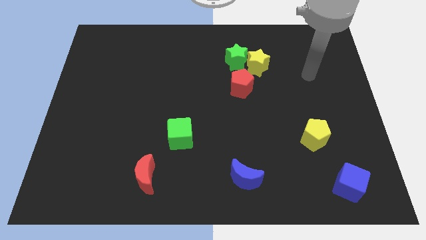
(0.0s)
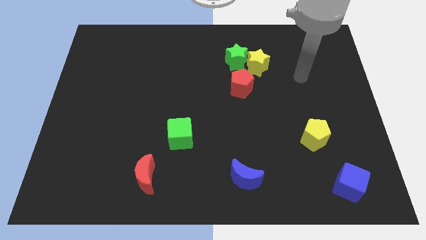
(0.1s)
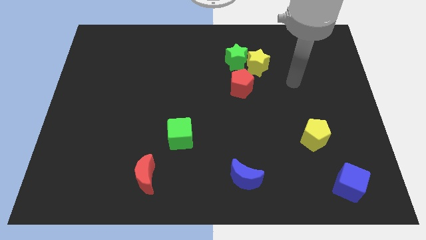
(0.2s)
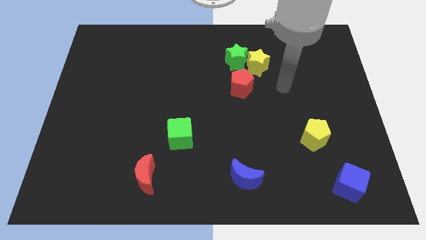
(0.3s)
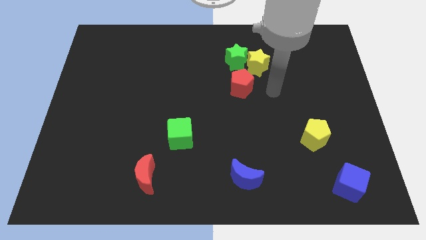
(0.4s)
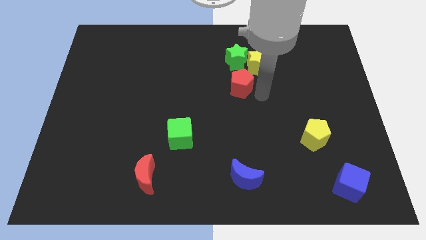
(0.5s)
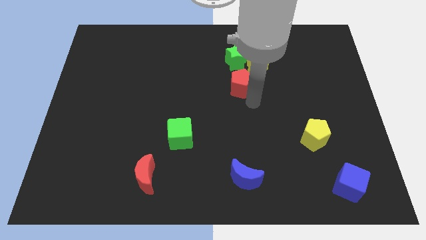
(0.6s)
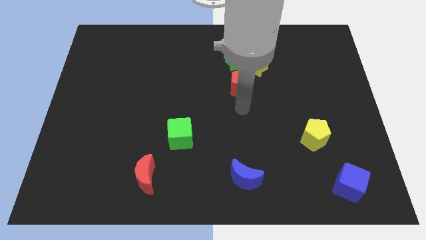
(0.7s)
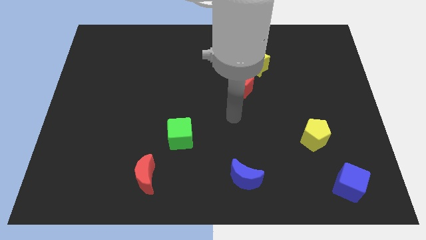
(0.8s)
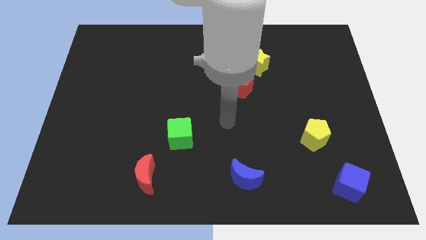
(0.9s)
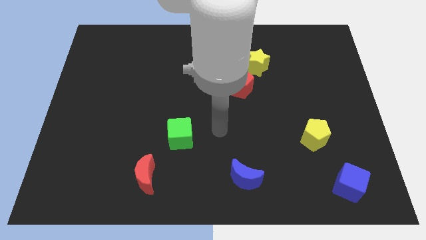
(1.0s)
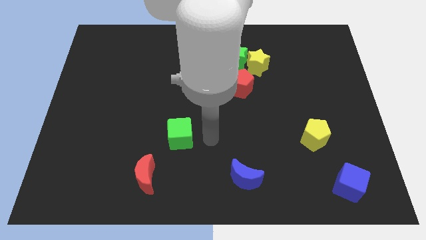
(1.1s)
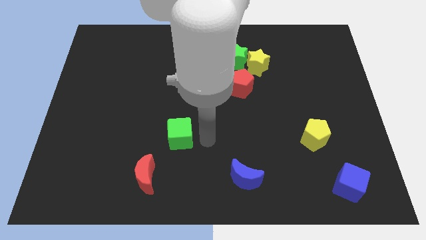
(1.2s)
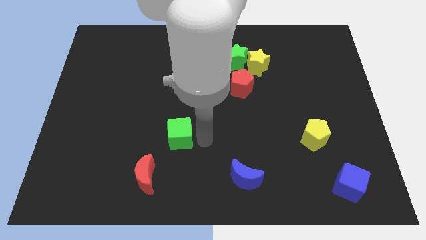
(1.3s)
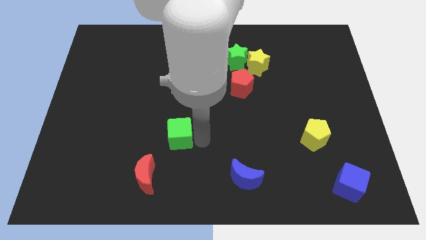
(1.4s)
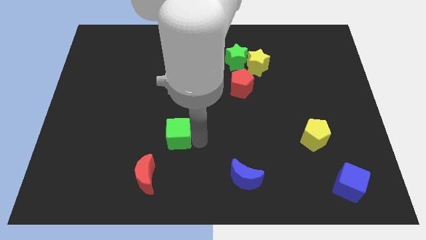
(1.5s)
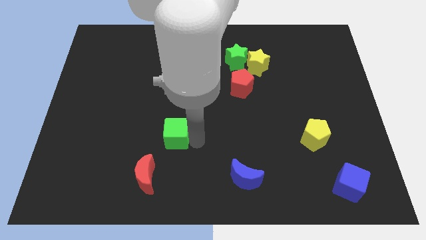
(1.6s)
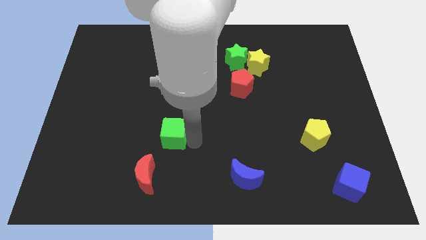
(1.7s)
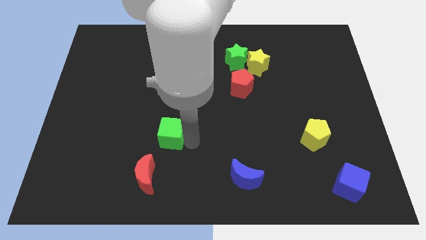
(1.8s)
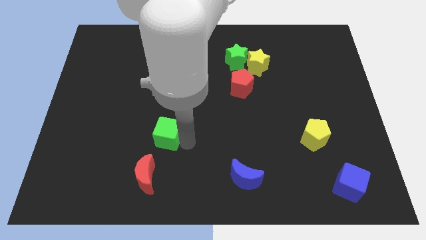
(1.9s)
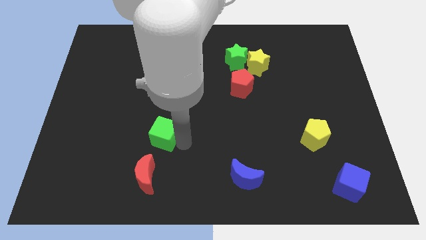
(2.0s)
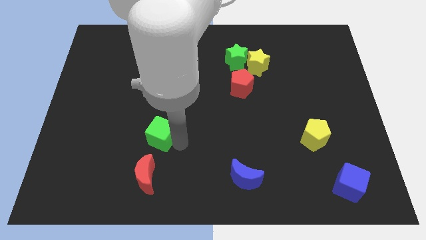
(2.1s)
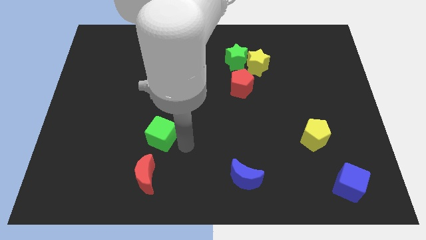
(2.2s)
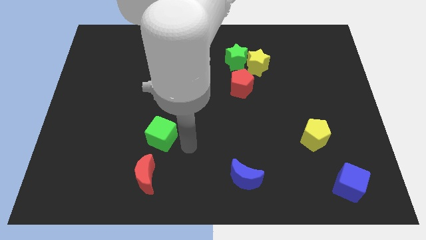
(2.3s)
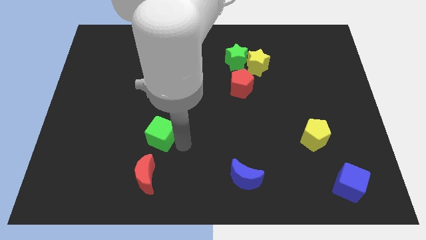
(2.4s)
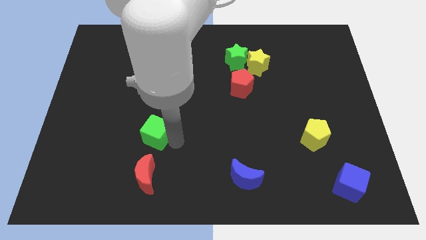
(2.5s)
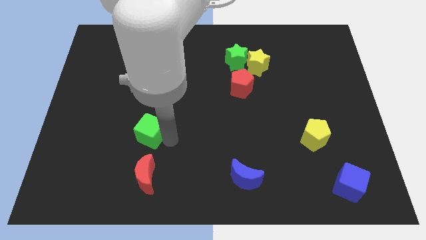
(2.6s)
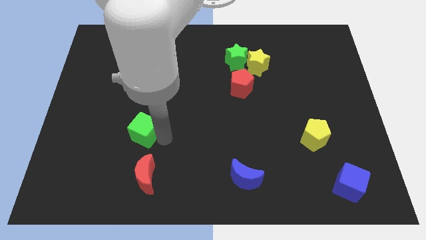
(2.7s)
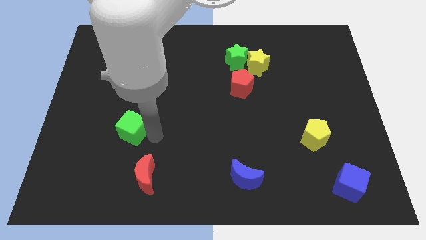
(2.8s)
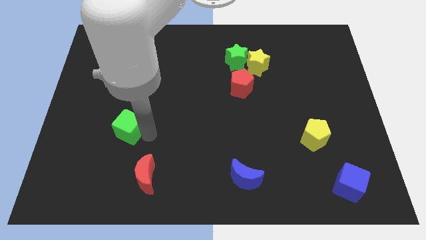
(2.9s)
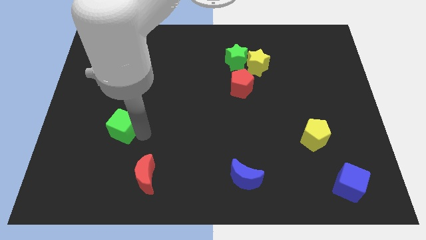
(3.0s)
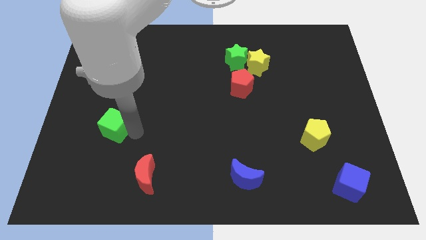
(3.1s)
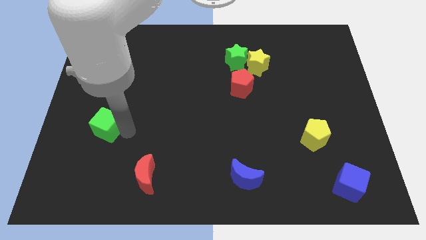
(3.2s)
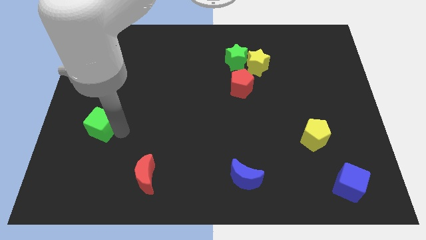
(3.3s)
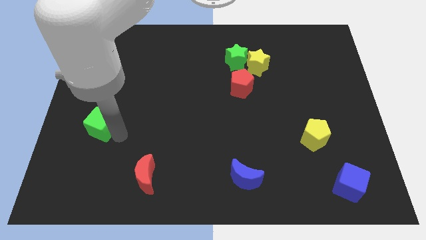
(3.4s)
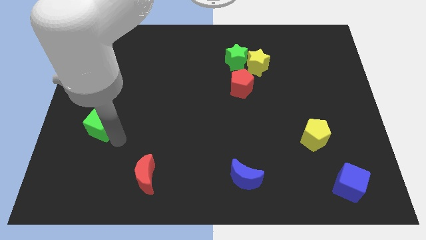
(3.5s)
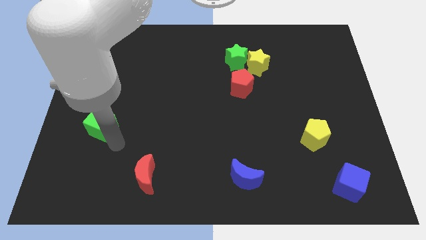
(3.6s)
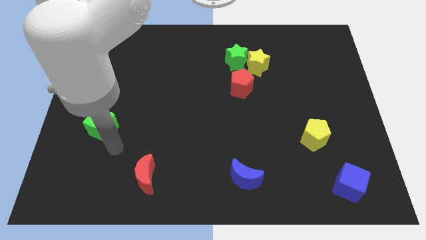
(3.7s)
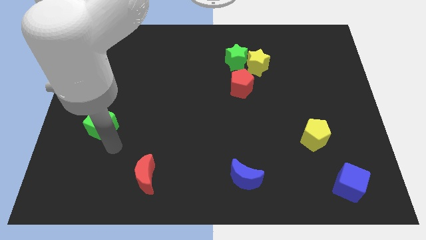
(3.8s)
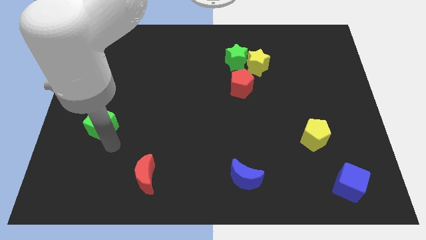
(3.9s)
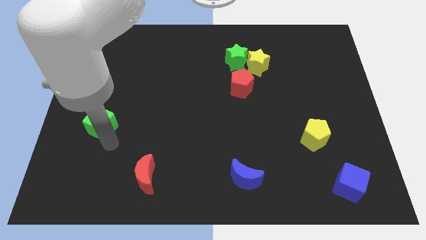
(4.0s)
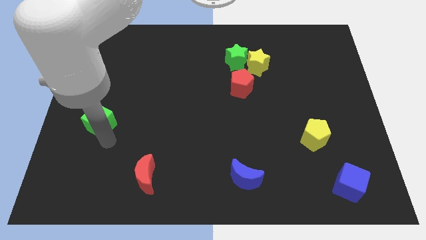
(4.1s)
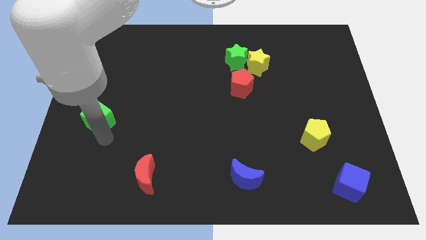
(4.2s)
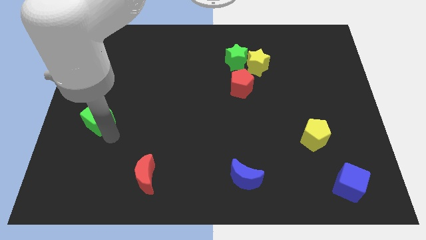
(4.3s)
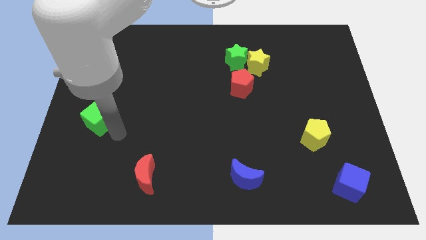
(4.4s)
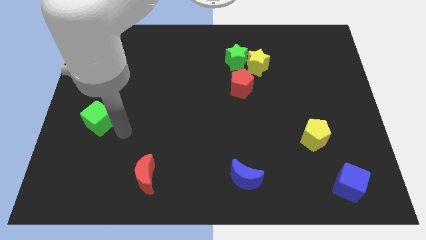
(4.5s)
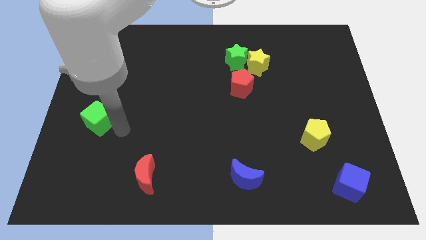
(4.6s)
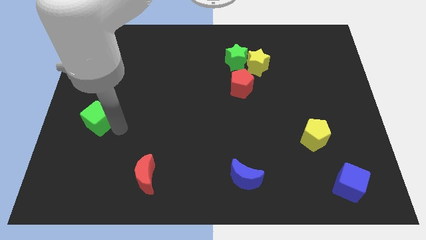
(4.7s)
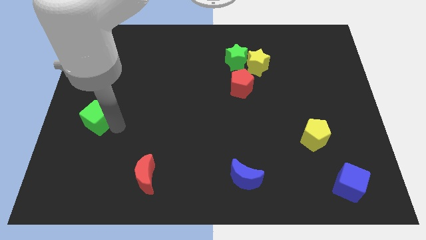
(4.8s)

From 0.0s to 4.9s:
put the green cube to the left side of the board

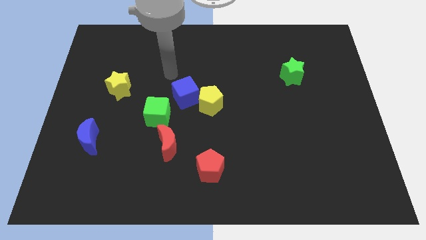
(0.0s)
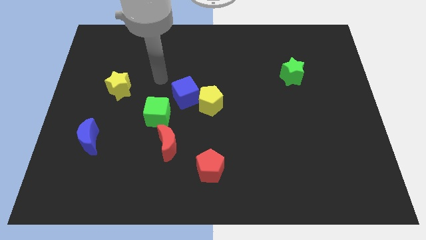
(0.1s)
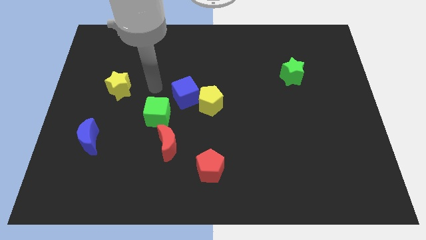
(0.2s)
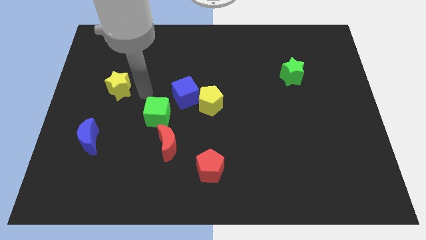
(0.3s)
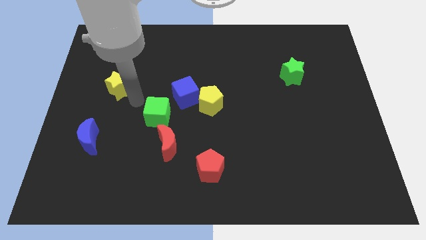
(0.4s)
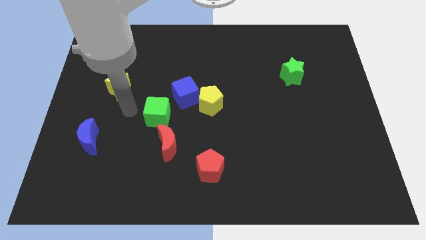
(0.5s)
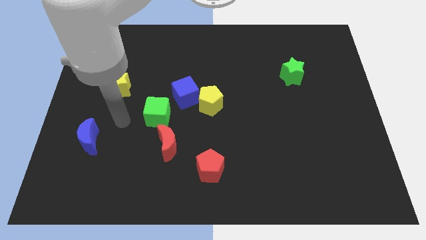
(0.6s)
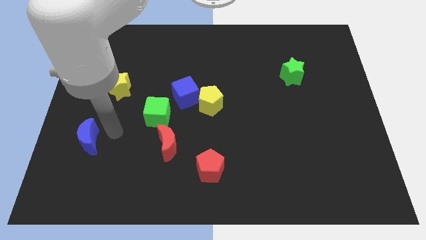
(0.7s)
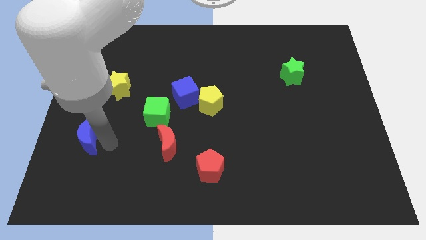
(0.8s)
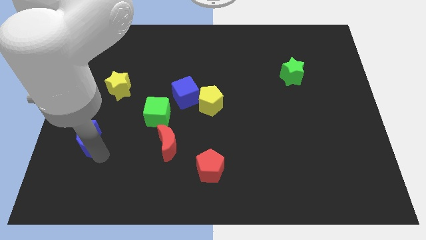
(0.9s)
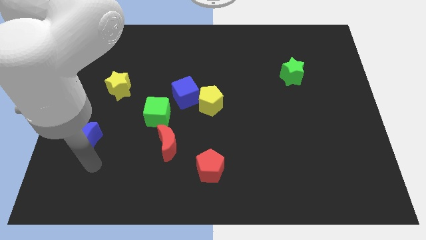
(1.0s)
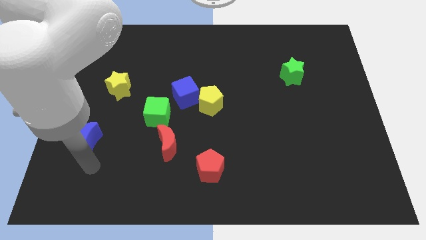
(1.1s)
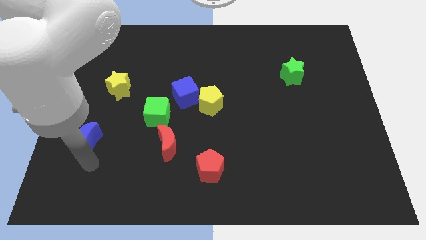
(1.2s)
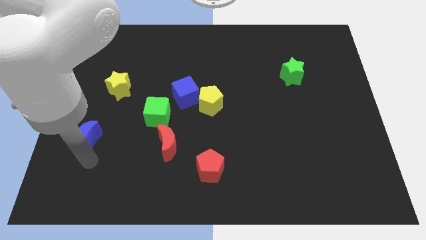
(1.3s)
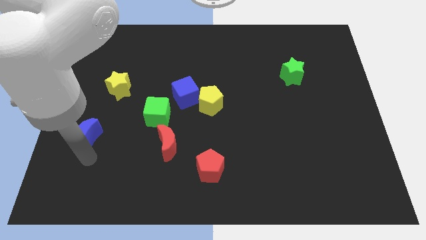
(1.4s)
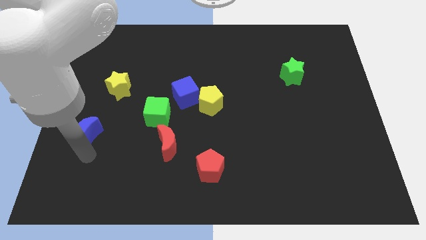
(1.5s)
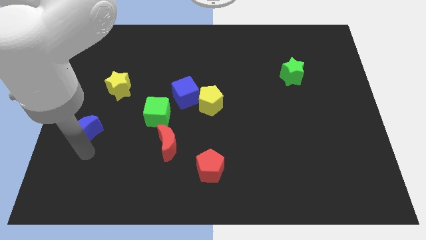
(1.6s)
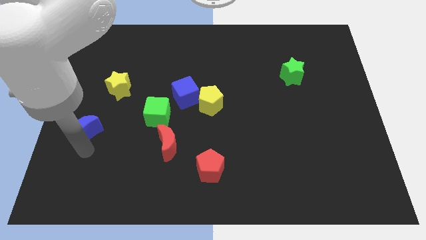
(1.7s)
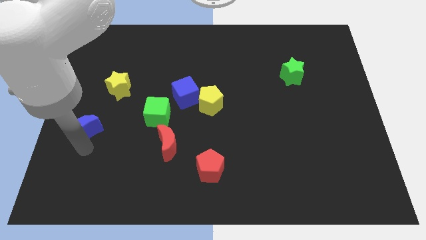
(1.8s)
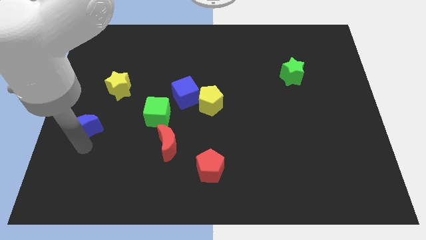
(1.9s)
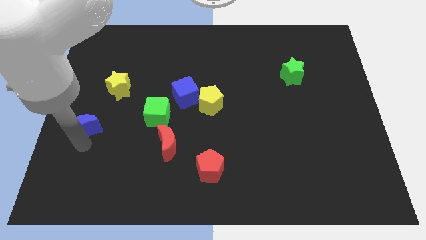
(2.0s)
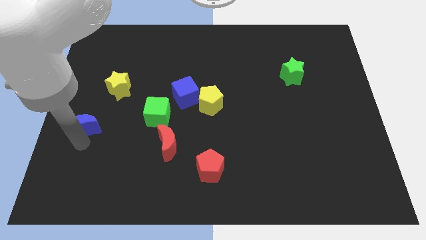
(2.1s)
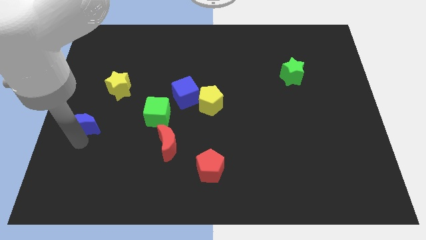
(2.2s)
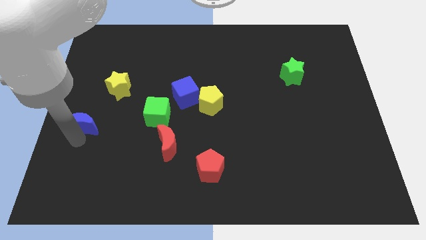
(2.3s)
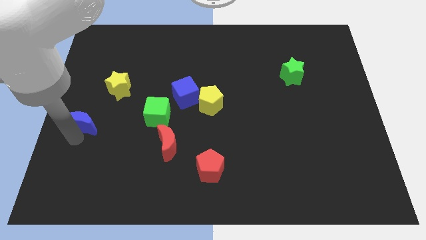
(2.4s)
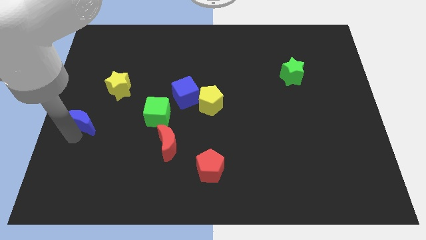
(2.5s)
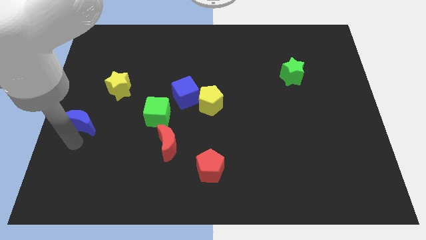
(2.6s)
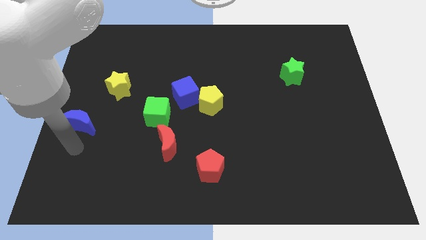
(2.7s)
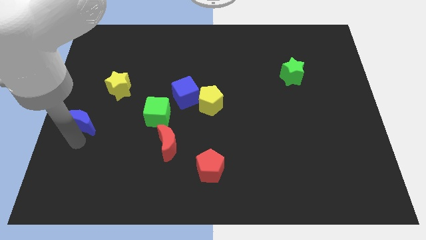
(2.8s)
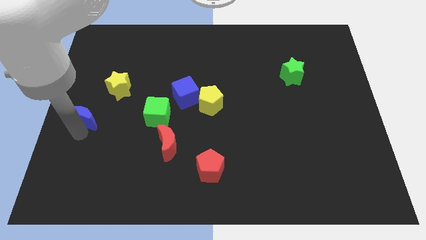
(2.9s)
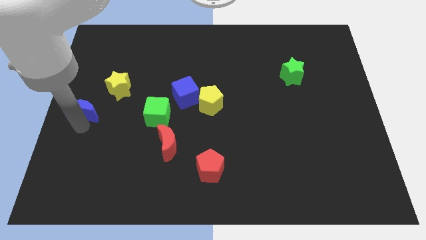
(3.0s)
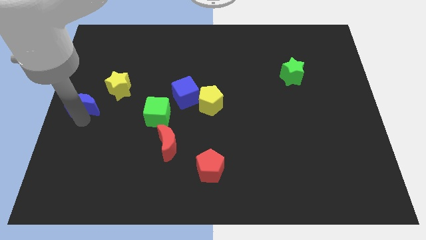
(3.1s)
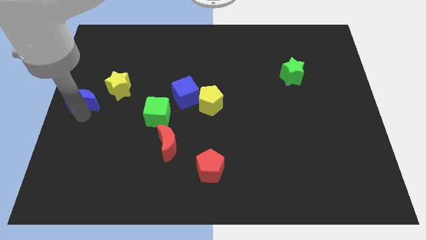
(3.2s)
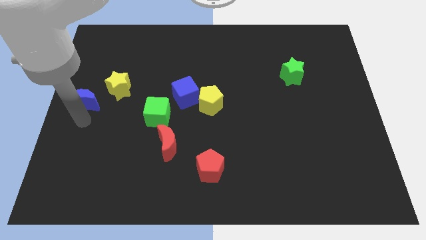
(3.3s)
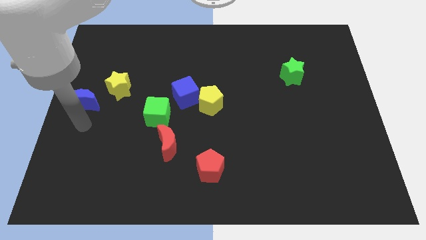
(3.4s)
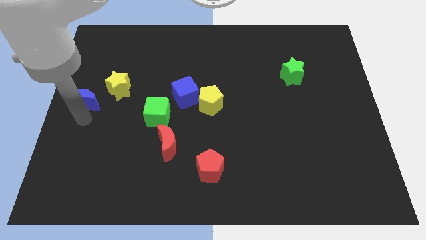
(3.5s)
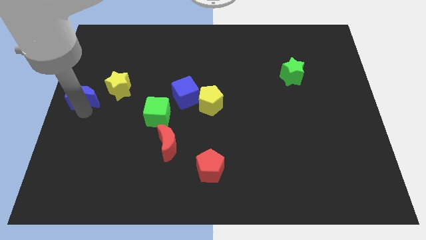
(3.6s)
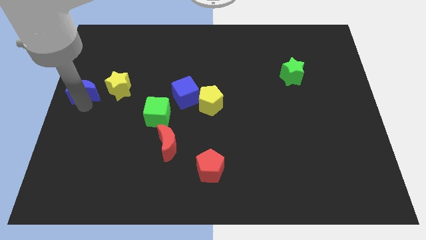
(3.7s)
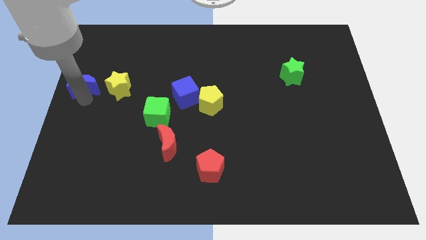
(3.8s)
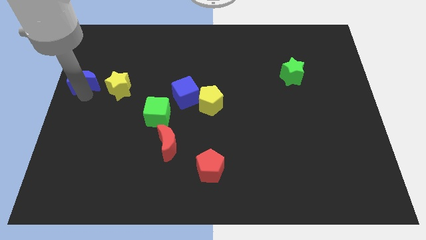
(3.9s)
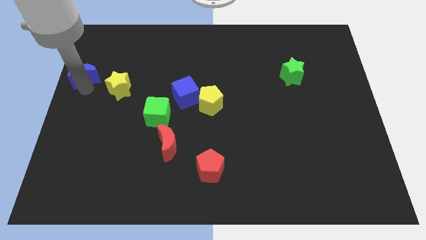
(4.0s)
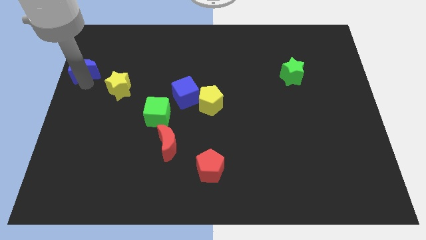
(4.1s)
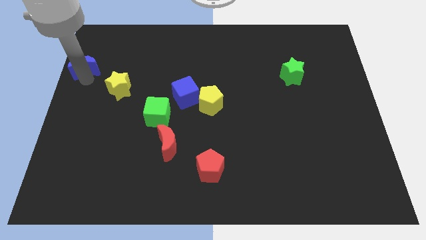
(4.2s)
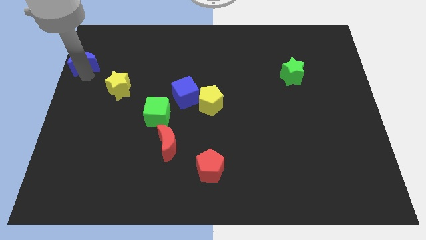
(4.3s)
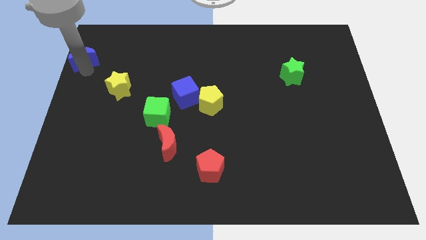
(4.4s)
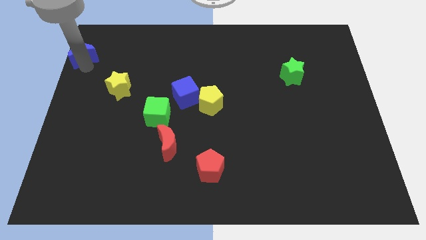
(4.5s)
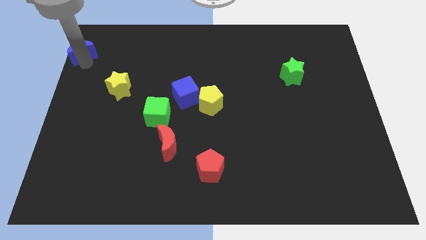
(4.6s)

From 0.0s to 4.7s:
push the blue moon to the top left corner
